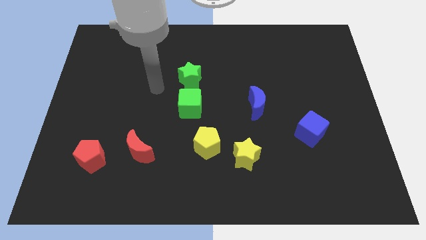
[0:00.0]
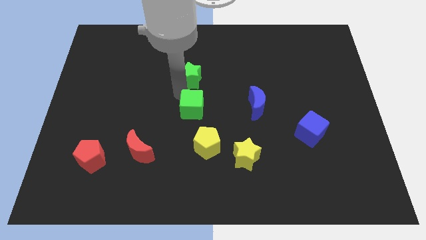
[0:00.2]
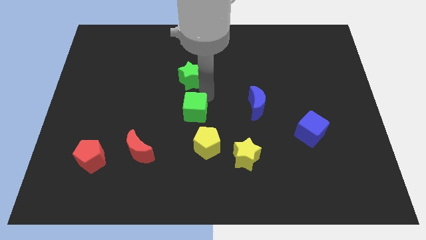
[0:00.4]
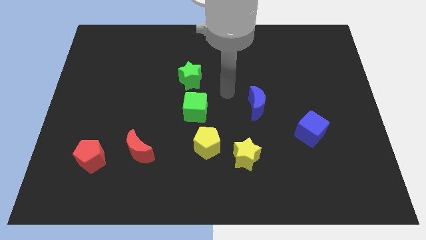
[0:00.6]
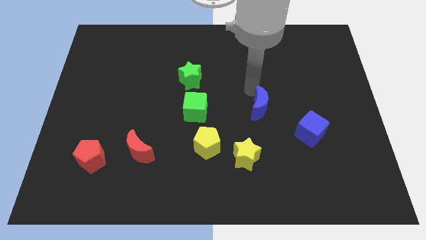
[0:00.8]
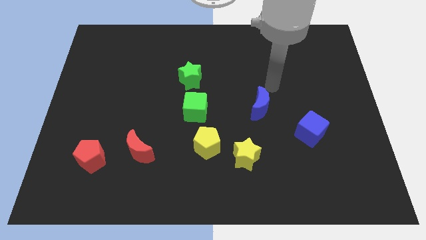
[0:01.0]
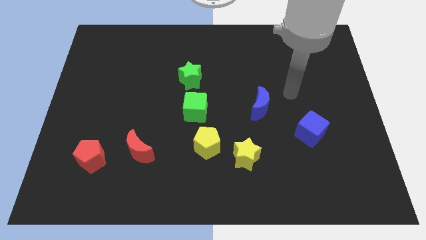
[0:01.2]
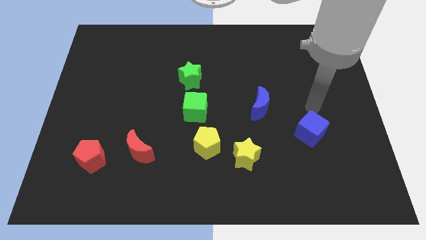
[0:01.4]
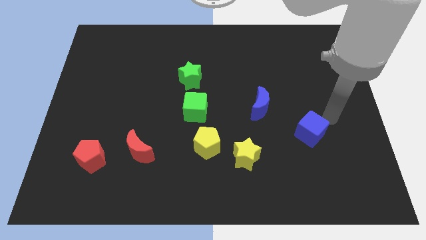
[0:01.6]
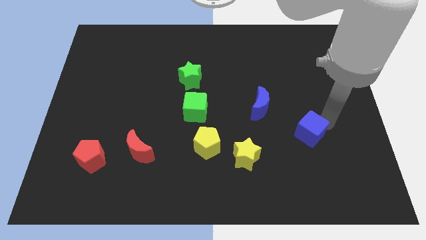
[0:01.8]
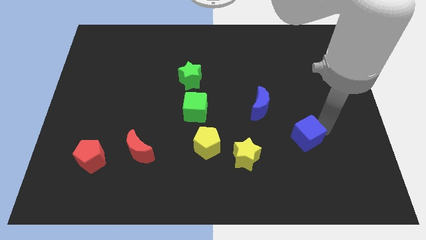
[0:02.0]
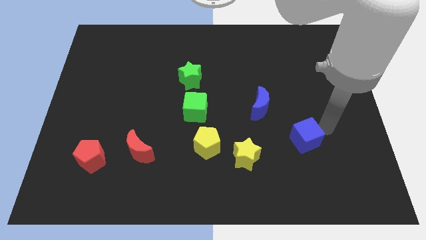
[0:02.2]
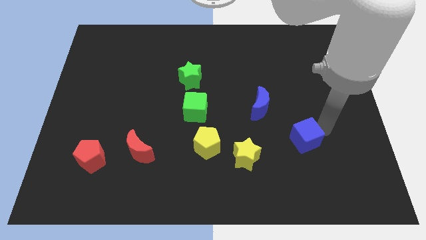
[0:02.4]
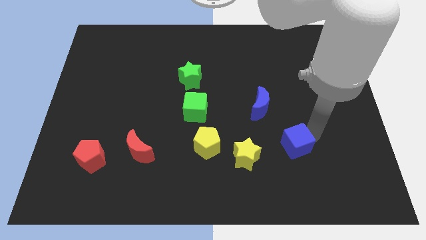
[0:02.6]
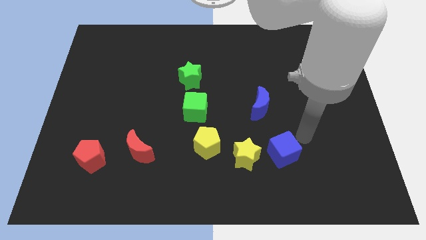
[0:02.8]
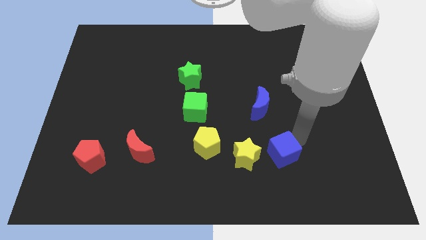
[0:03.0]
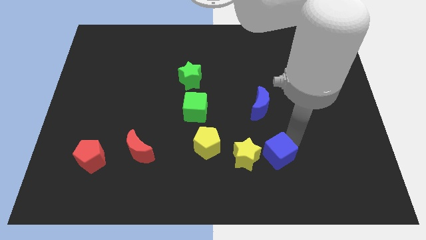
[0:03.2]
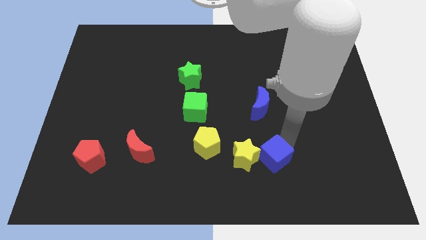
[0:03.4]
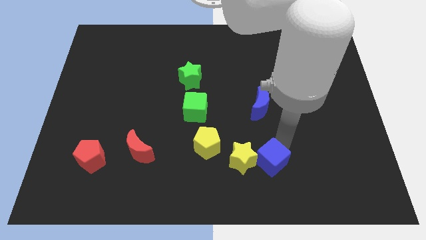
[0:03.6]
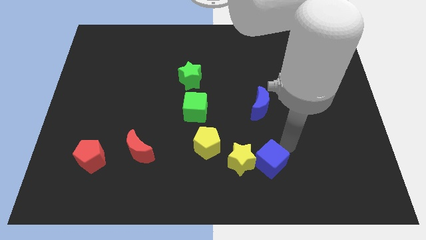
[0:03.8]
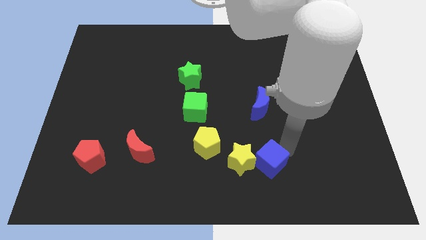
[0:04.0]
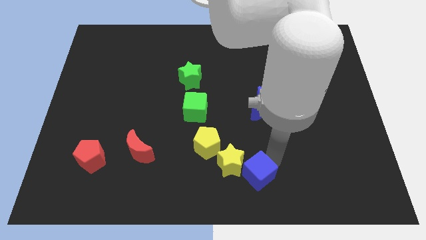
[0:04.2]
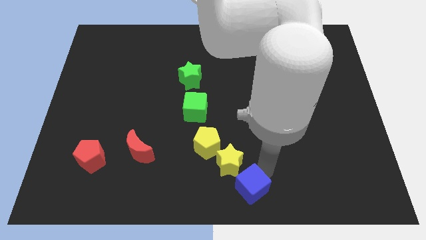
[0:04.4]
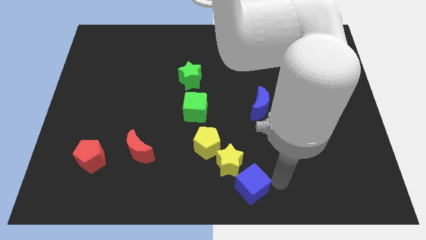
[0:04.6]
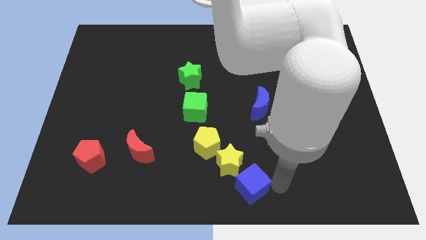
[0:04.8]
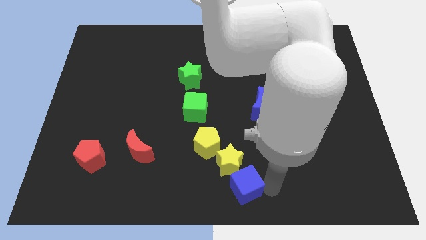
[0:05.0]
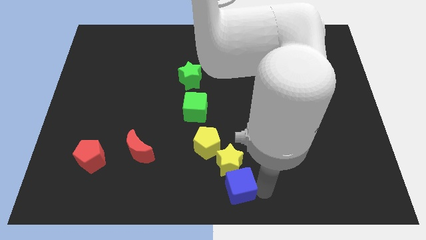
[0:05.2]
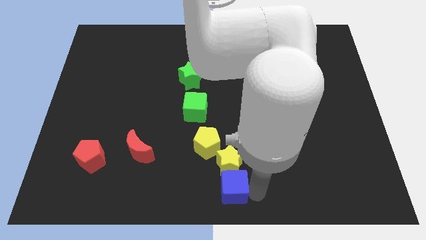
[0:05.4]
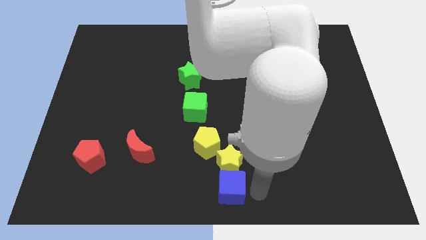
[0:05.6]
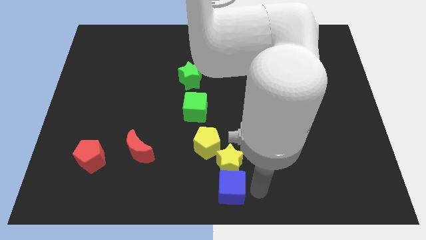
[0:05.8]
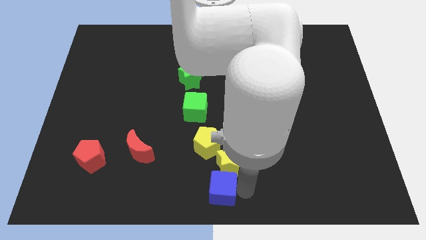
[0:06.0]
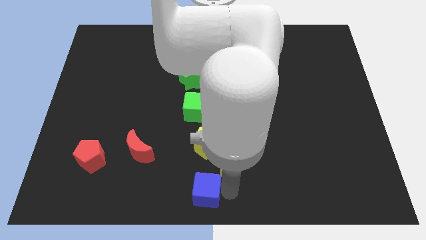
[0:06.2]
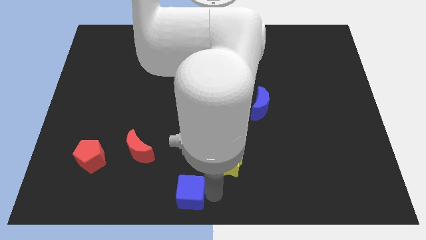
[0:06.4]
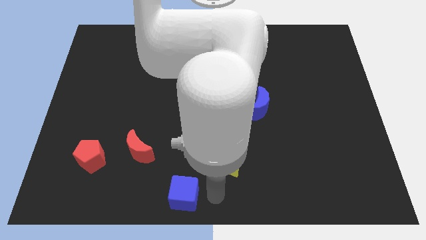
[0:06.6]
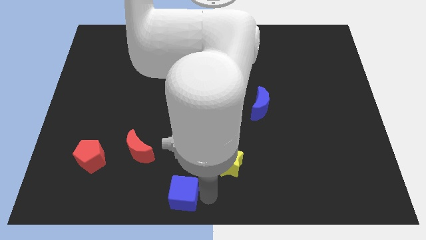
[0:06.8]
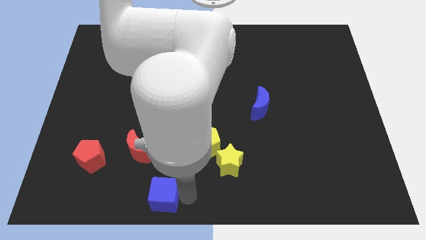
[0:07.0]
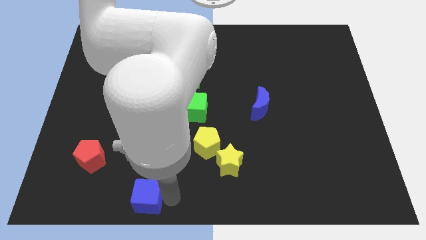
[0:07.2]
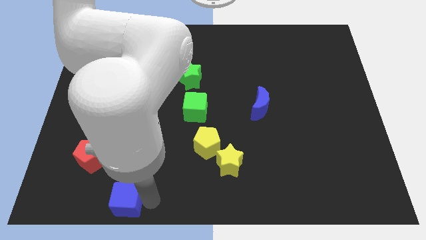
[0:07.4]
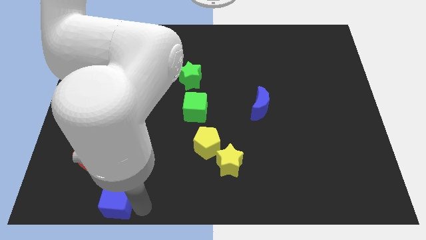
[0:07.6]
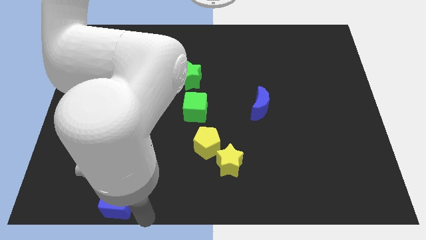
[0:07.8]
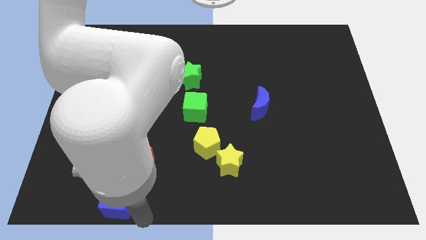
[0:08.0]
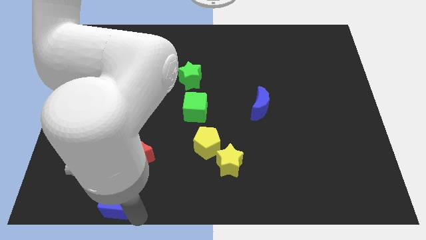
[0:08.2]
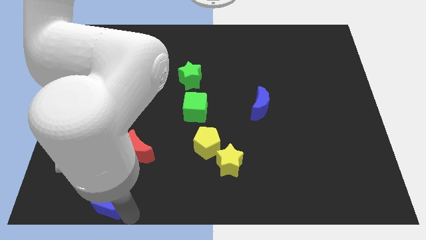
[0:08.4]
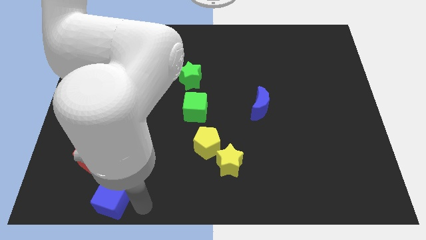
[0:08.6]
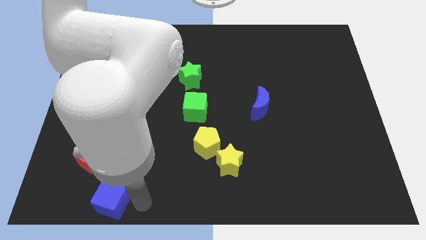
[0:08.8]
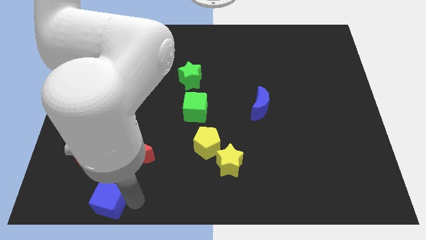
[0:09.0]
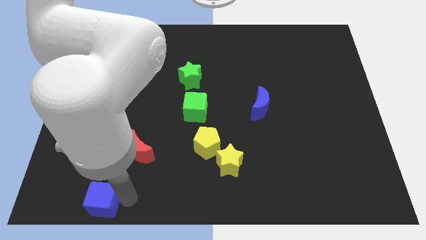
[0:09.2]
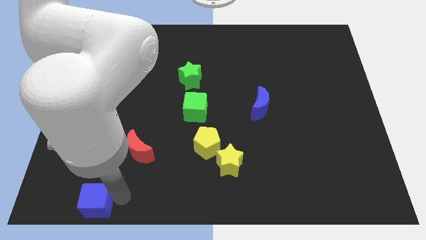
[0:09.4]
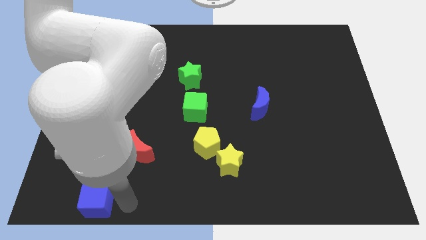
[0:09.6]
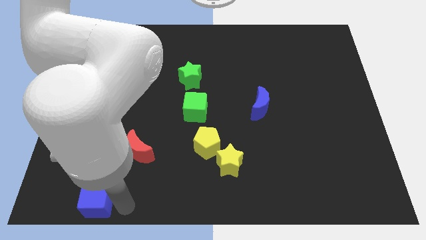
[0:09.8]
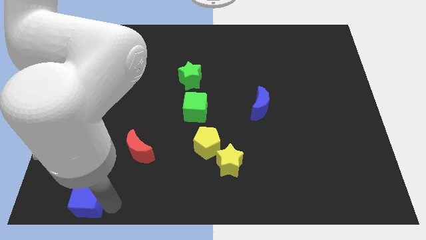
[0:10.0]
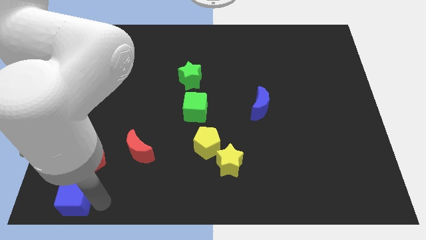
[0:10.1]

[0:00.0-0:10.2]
put the blue cube to the bottom left corner

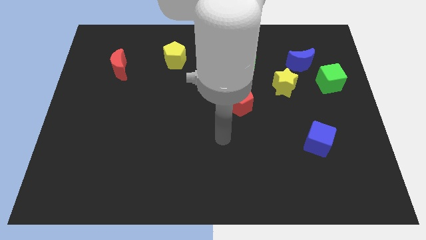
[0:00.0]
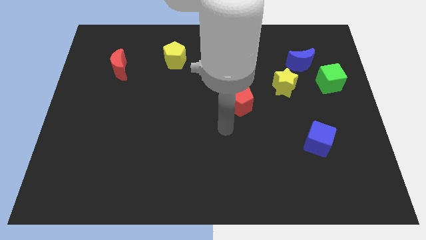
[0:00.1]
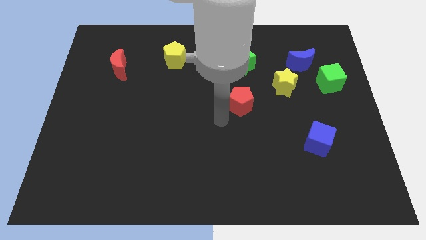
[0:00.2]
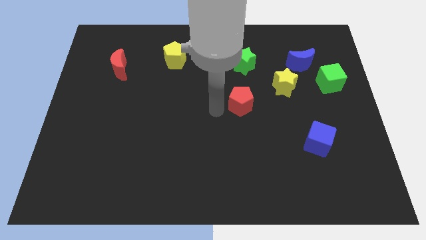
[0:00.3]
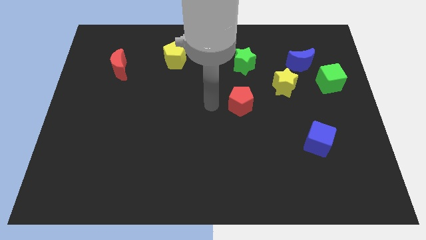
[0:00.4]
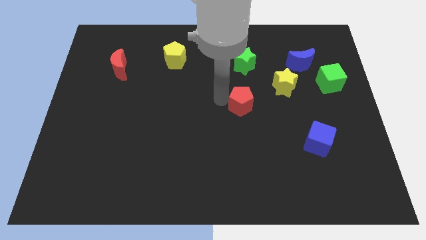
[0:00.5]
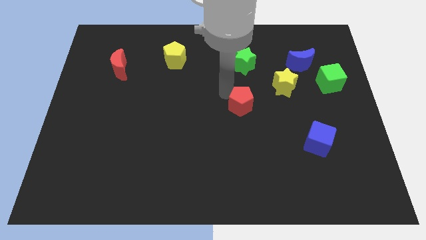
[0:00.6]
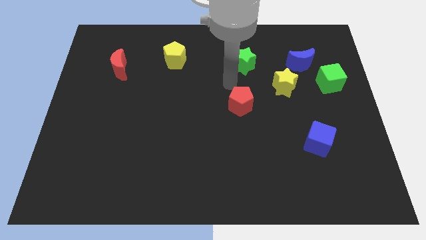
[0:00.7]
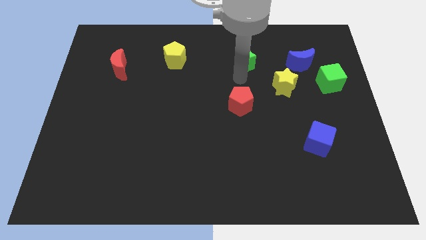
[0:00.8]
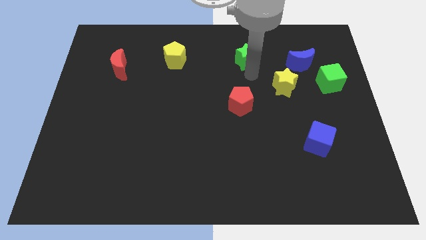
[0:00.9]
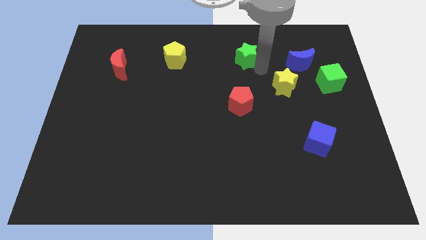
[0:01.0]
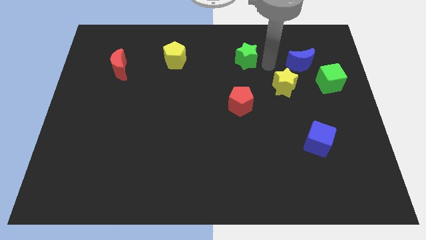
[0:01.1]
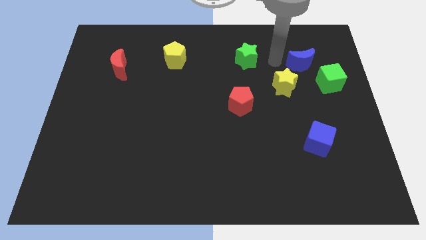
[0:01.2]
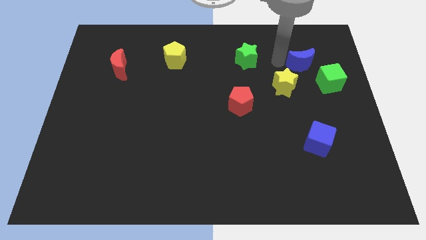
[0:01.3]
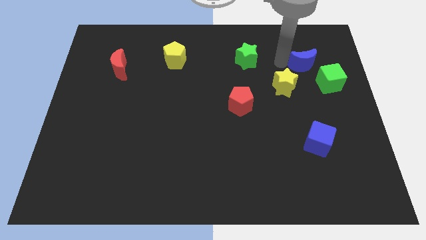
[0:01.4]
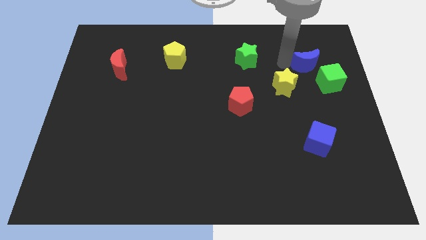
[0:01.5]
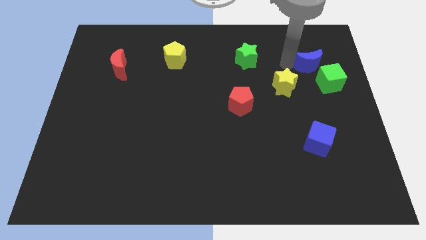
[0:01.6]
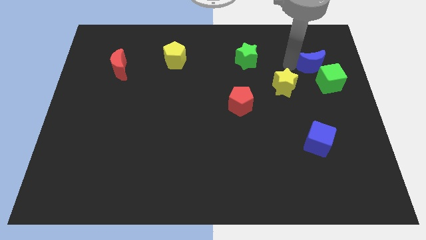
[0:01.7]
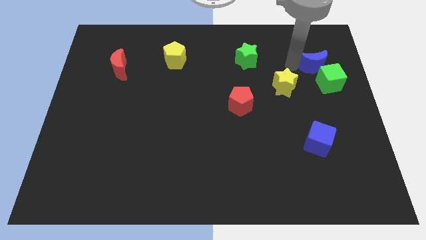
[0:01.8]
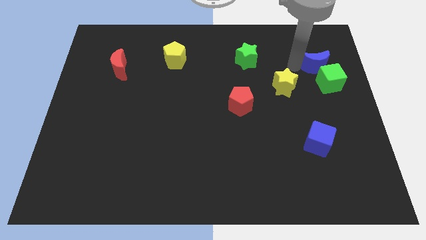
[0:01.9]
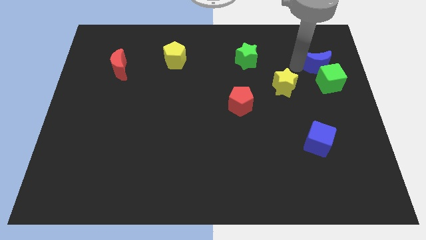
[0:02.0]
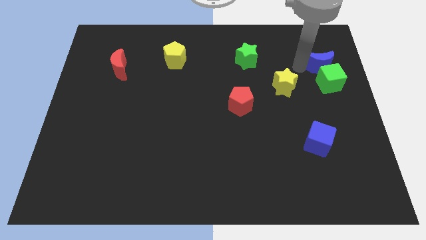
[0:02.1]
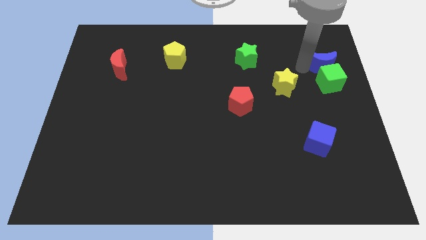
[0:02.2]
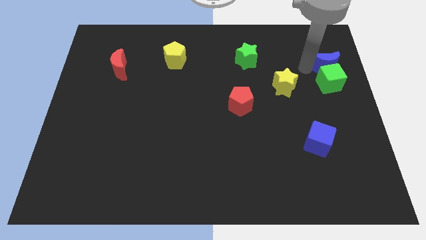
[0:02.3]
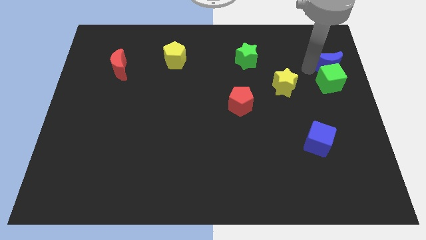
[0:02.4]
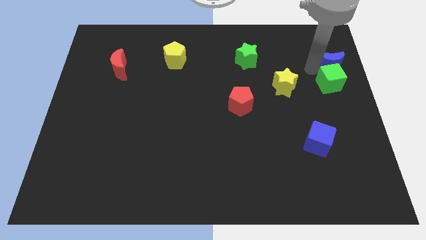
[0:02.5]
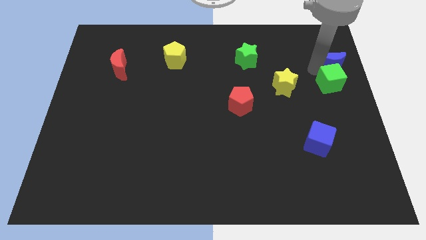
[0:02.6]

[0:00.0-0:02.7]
slide the blue moon to the center right
